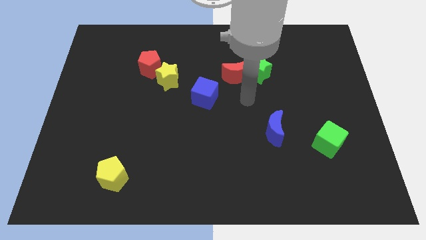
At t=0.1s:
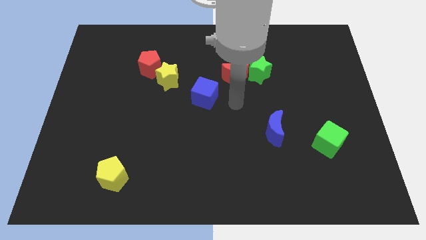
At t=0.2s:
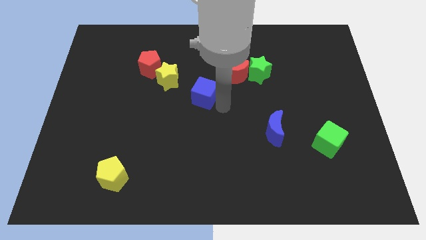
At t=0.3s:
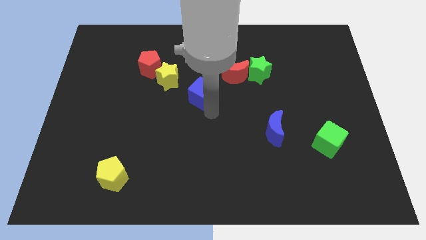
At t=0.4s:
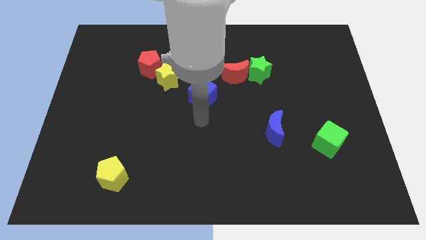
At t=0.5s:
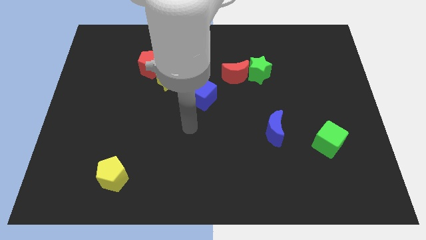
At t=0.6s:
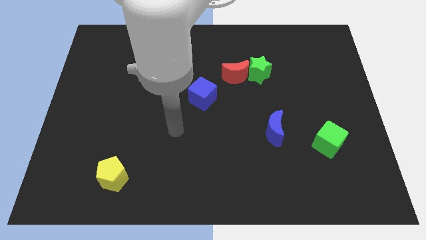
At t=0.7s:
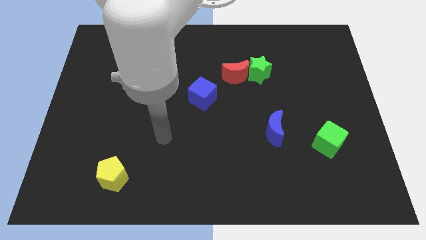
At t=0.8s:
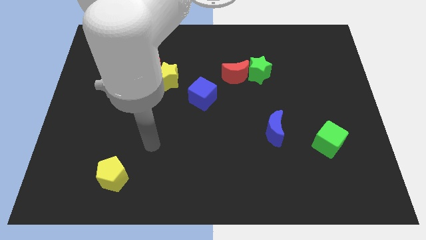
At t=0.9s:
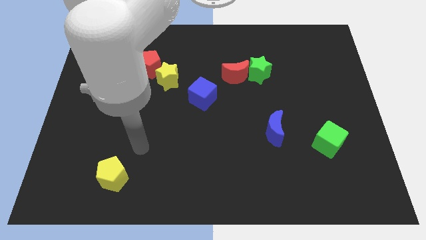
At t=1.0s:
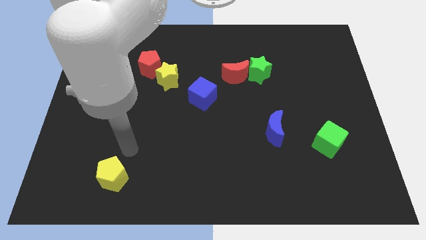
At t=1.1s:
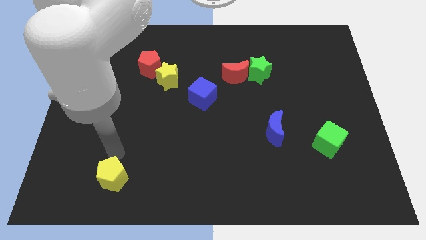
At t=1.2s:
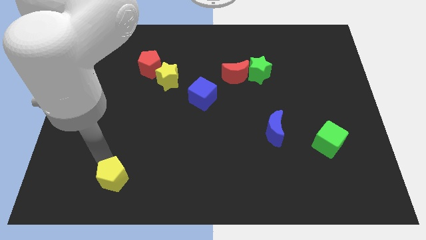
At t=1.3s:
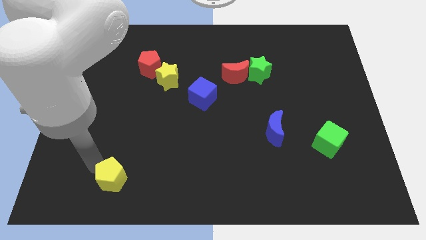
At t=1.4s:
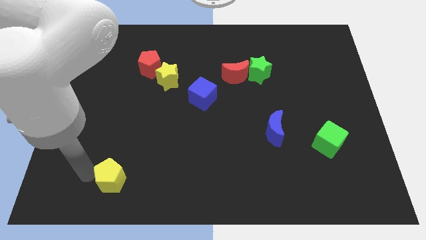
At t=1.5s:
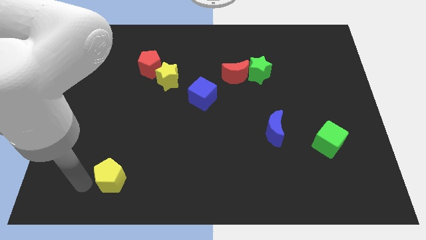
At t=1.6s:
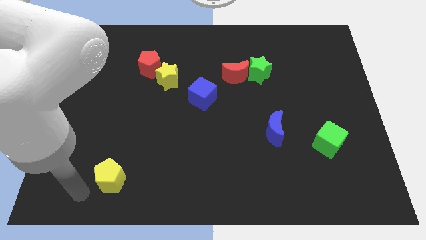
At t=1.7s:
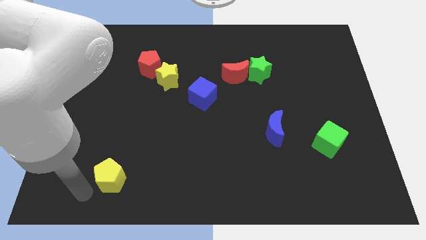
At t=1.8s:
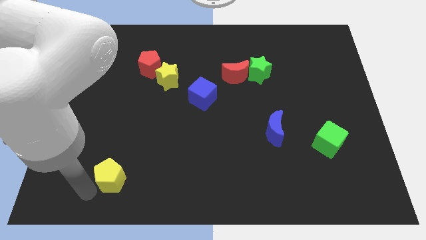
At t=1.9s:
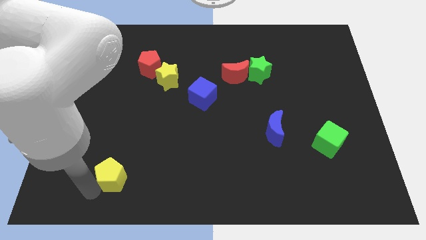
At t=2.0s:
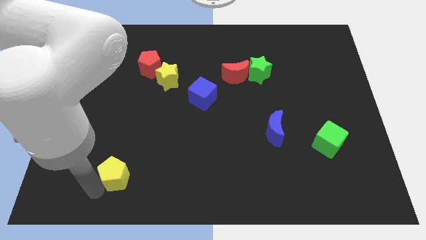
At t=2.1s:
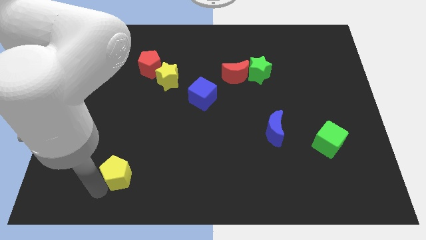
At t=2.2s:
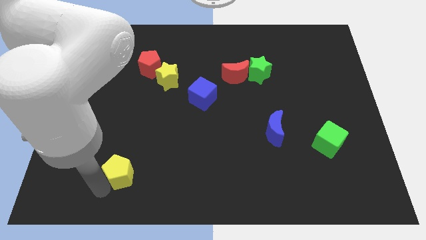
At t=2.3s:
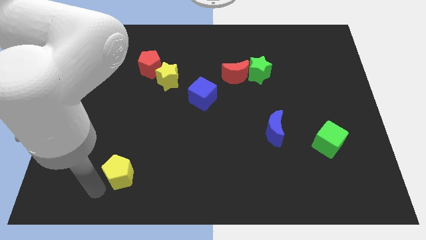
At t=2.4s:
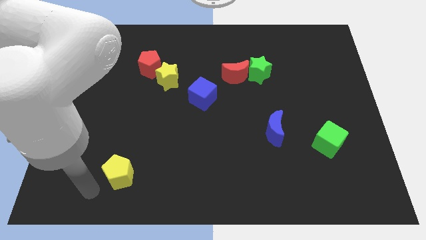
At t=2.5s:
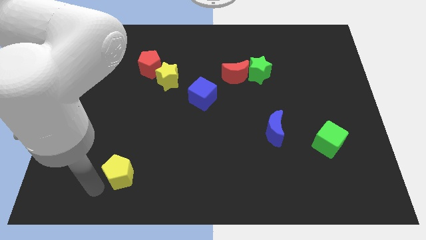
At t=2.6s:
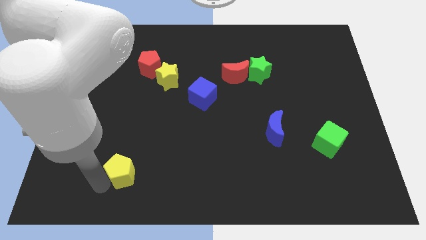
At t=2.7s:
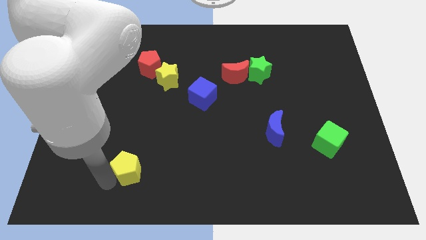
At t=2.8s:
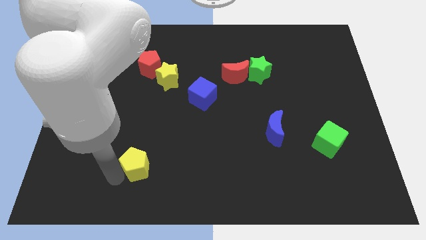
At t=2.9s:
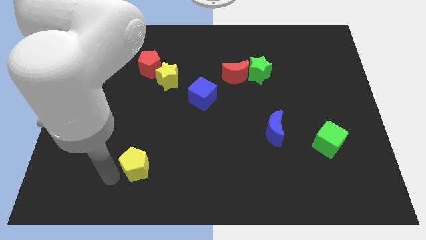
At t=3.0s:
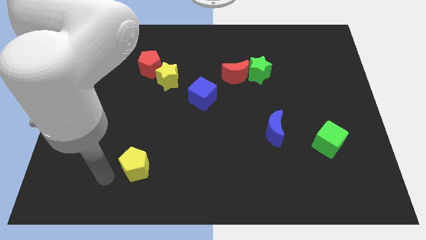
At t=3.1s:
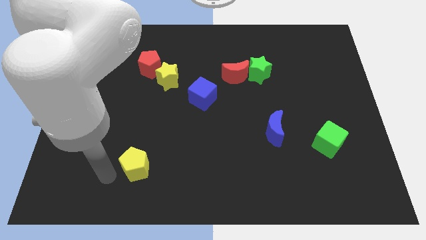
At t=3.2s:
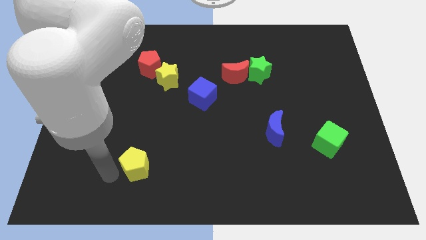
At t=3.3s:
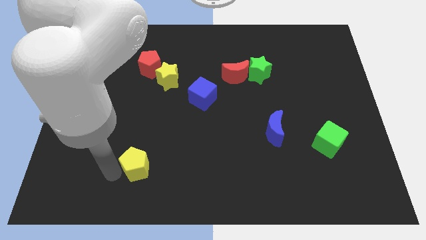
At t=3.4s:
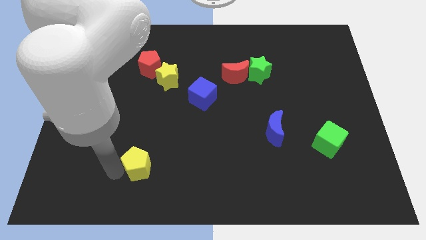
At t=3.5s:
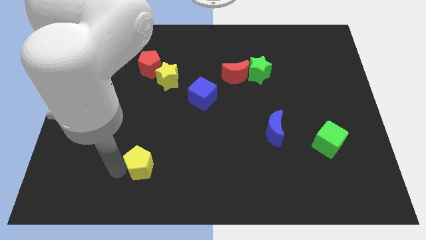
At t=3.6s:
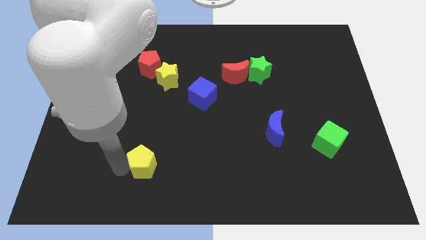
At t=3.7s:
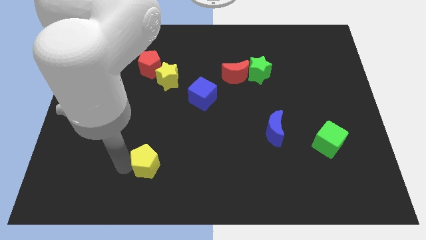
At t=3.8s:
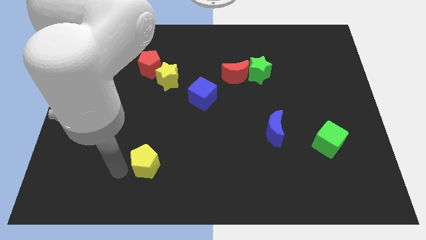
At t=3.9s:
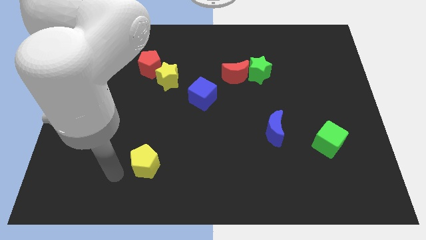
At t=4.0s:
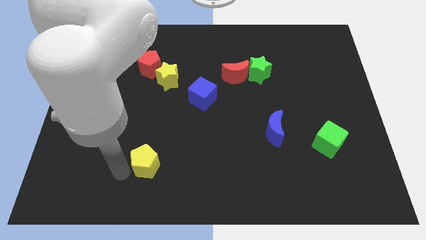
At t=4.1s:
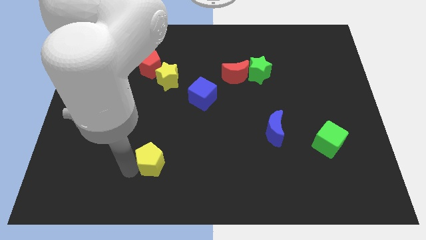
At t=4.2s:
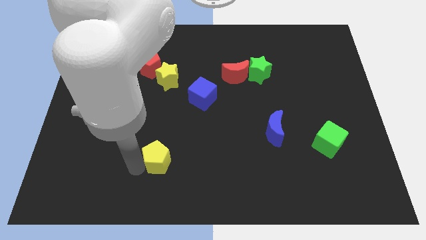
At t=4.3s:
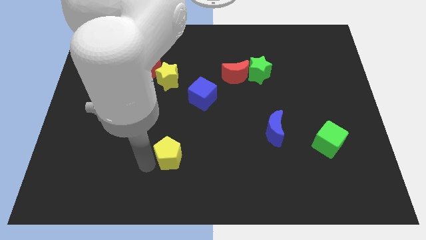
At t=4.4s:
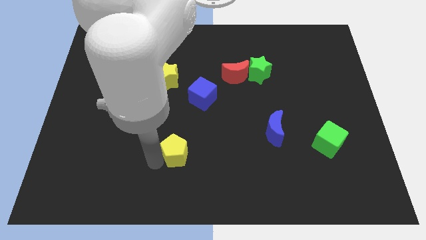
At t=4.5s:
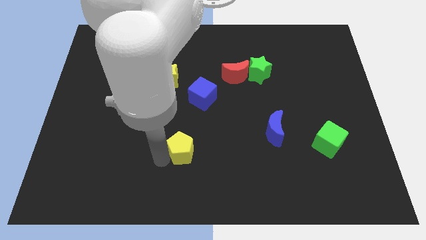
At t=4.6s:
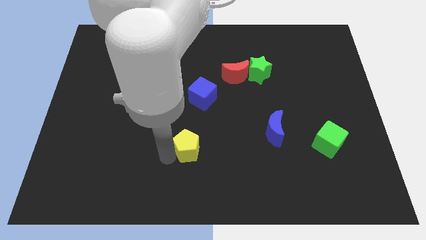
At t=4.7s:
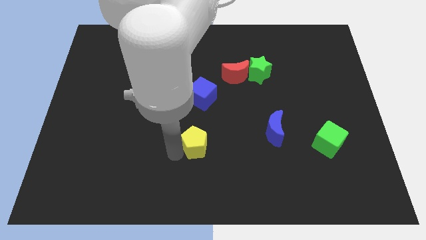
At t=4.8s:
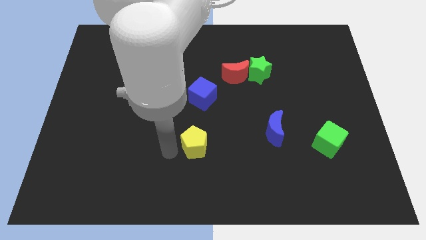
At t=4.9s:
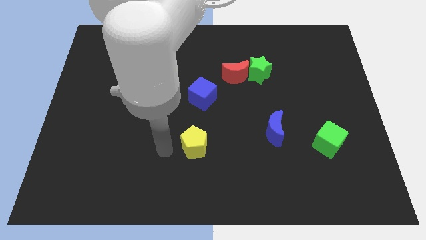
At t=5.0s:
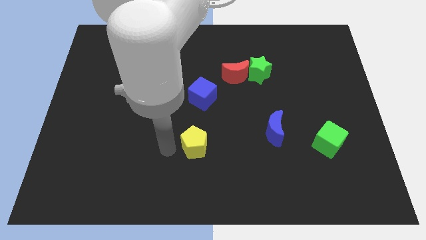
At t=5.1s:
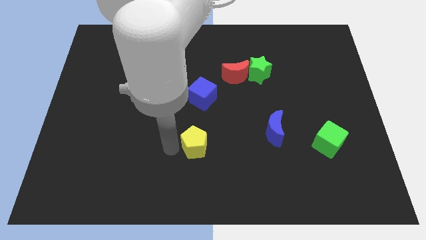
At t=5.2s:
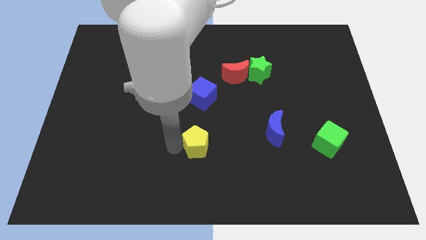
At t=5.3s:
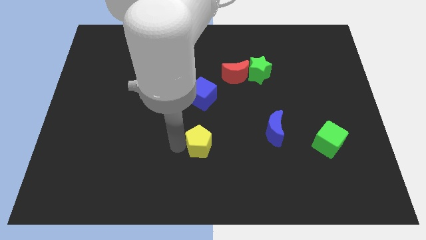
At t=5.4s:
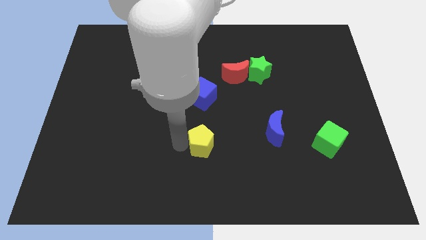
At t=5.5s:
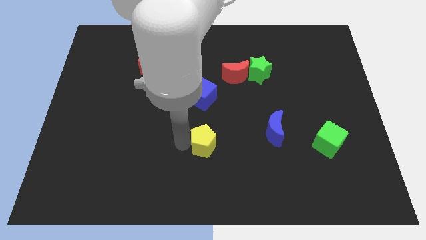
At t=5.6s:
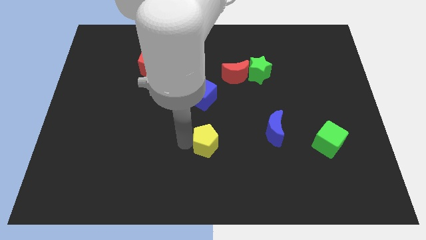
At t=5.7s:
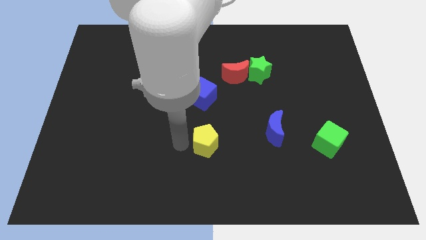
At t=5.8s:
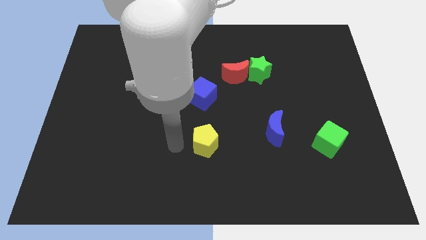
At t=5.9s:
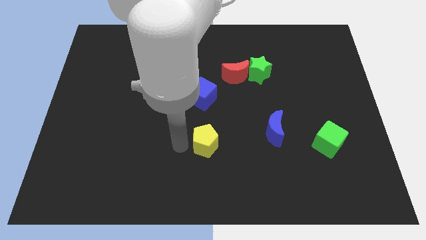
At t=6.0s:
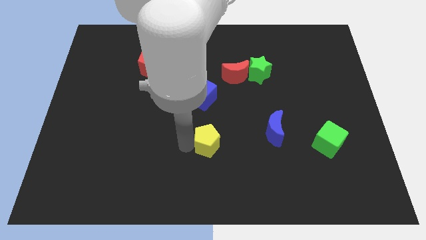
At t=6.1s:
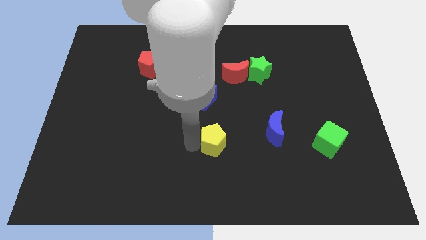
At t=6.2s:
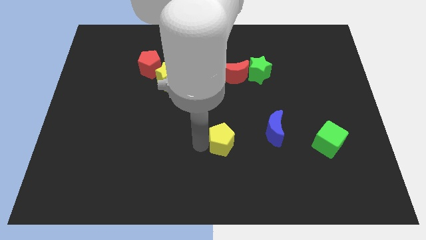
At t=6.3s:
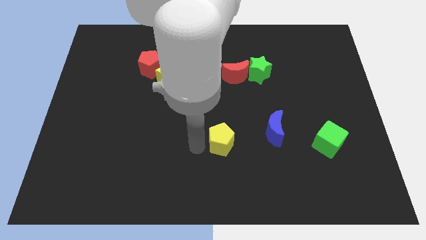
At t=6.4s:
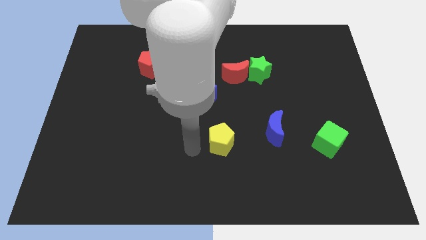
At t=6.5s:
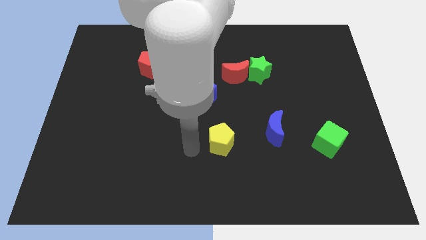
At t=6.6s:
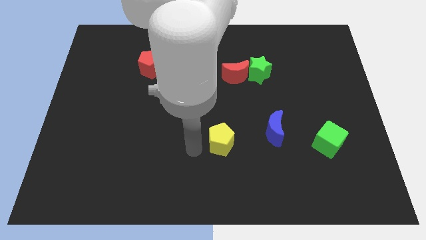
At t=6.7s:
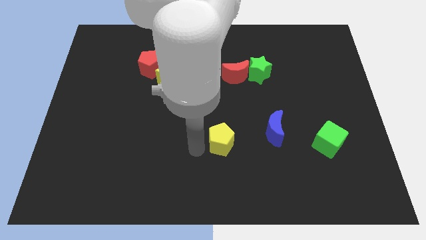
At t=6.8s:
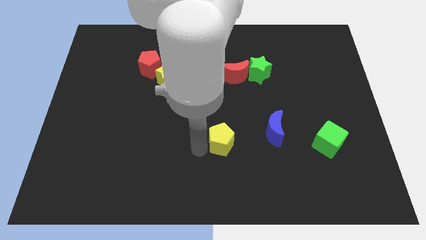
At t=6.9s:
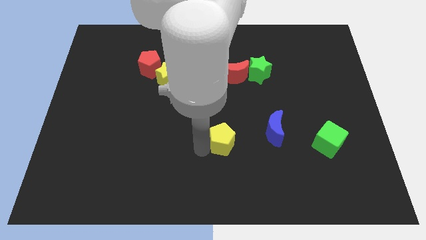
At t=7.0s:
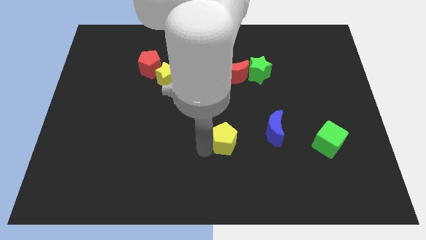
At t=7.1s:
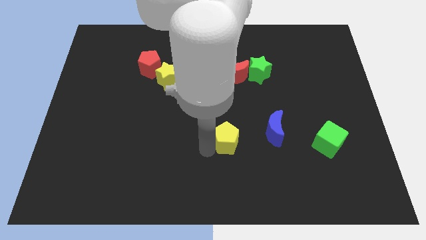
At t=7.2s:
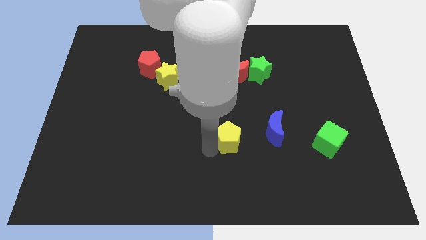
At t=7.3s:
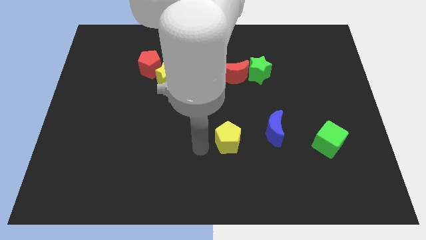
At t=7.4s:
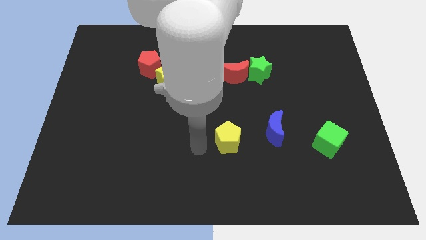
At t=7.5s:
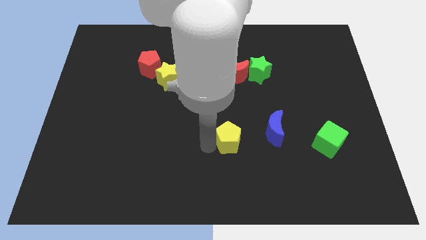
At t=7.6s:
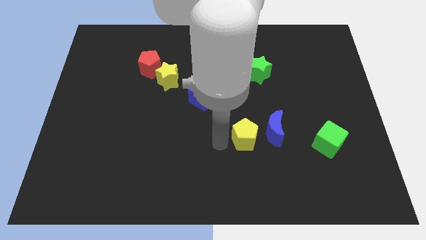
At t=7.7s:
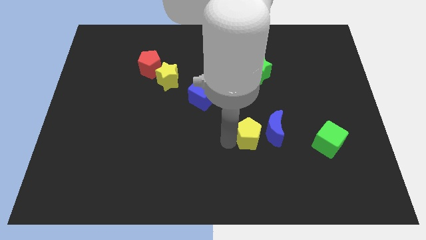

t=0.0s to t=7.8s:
slide the yellow pentagon towards the blue moon
